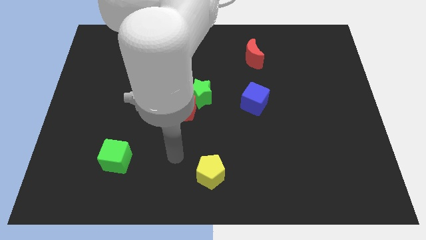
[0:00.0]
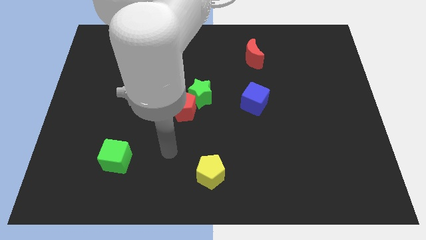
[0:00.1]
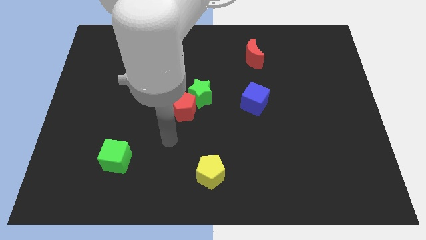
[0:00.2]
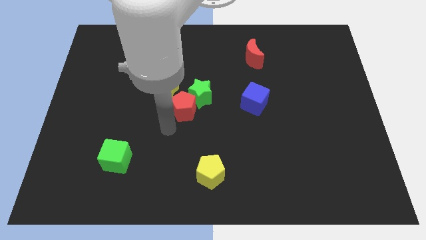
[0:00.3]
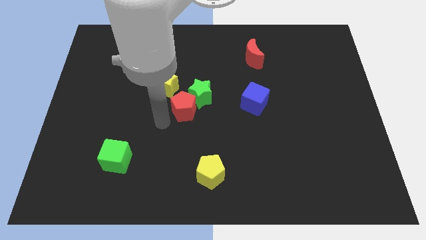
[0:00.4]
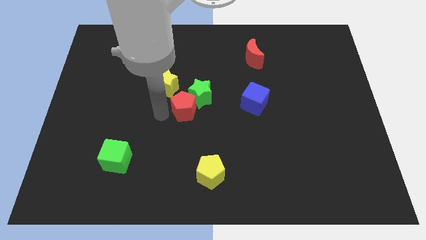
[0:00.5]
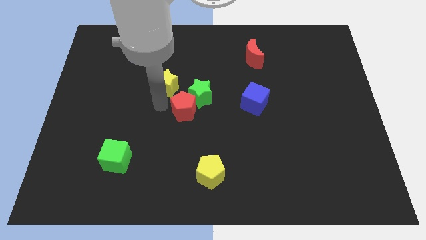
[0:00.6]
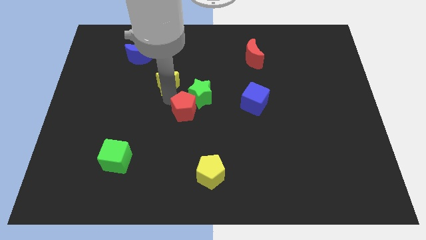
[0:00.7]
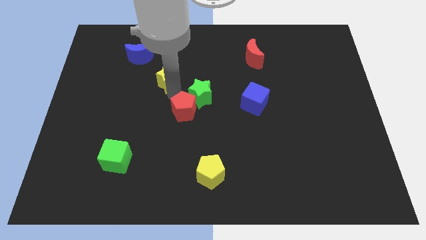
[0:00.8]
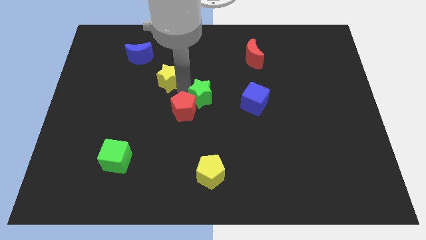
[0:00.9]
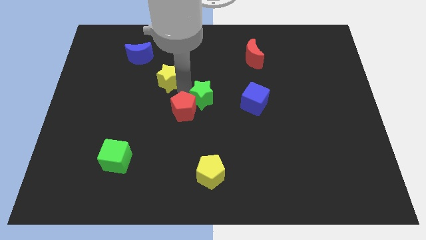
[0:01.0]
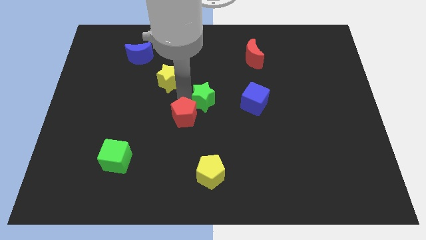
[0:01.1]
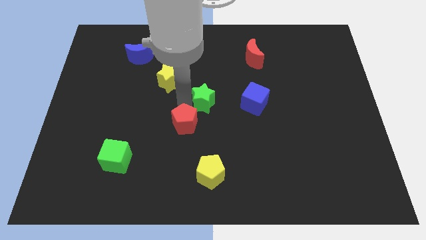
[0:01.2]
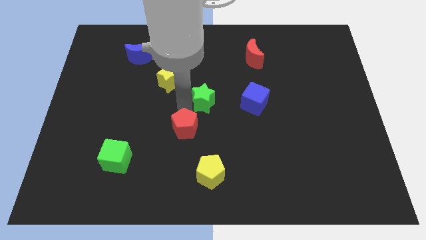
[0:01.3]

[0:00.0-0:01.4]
pull the red pentagon apart from the green star and yellow star

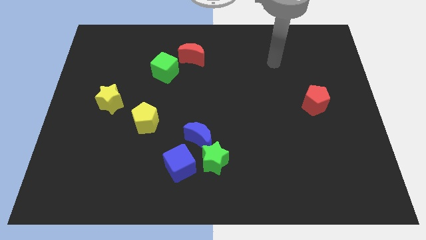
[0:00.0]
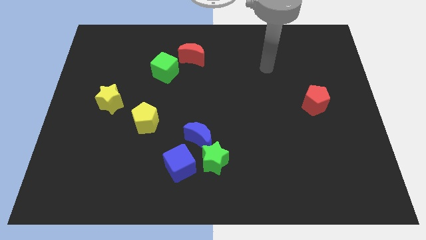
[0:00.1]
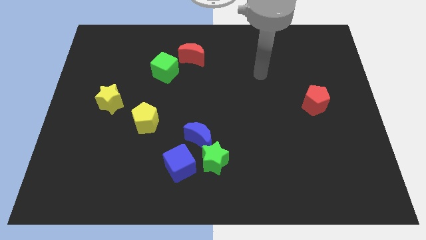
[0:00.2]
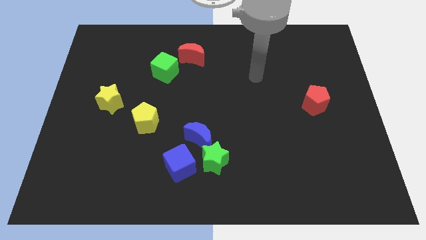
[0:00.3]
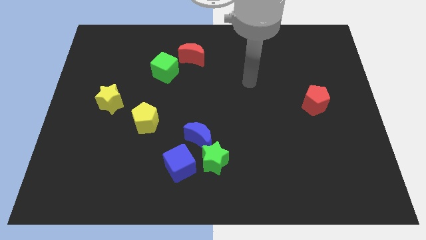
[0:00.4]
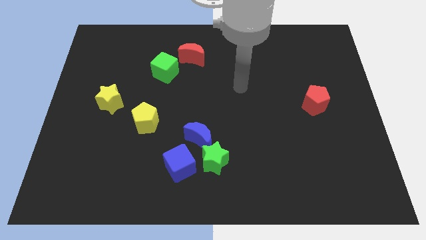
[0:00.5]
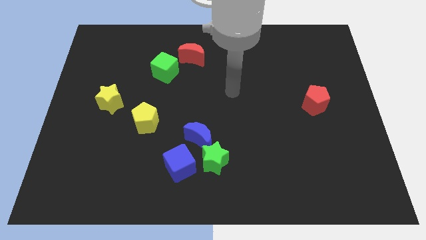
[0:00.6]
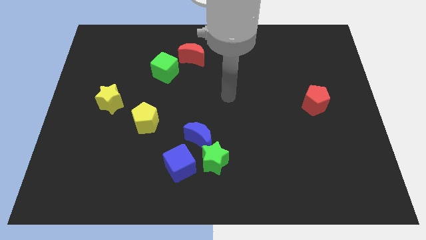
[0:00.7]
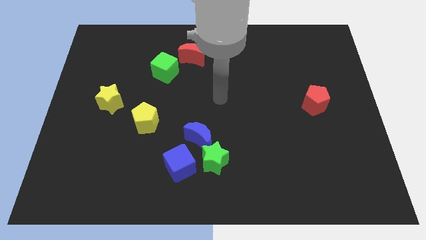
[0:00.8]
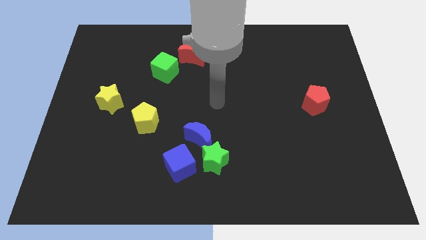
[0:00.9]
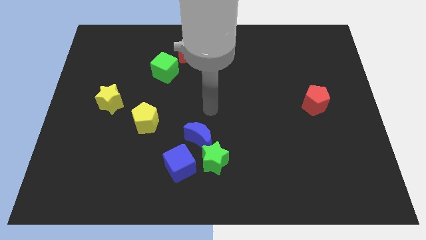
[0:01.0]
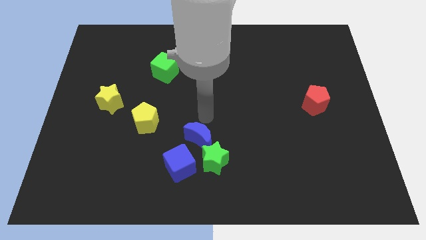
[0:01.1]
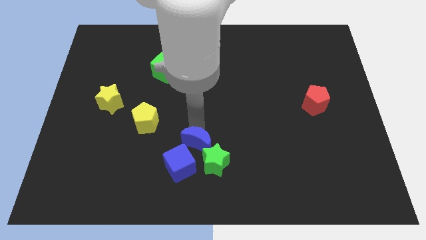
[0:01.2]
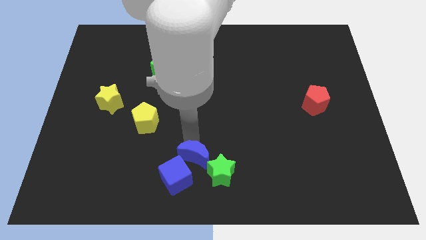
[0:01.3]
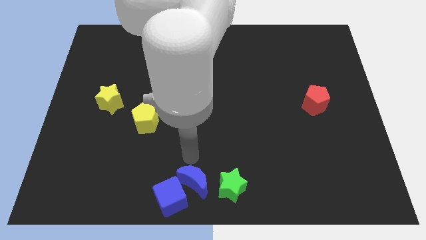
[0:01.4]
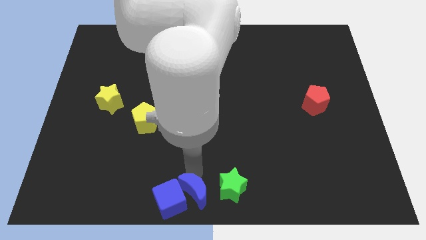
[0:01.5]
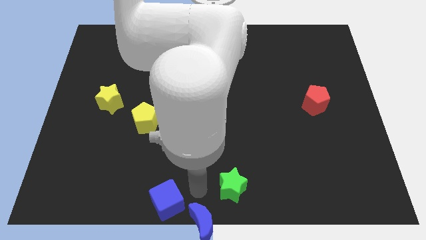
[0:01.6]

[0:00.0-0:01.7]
move the green star away from the blue moon and blue cube

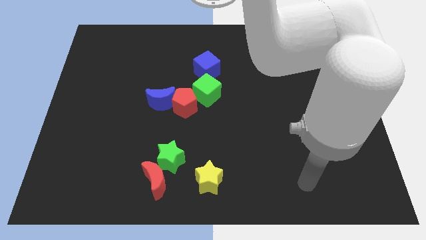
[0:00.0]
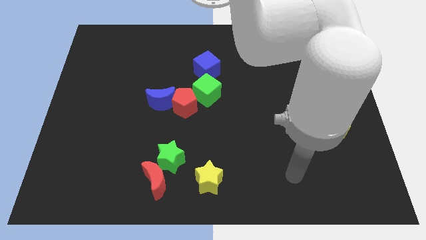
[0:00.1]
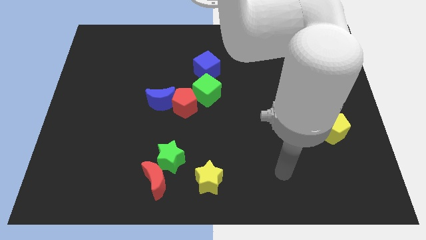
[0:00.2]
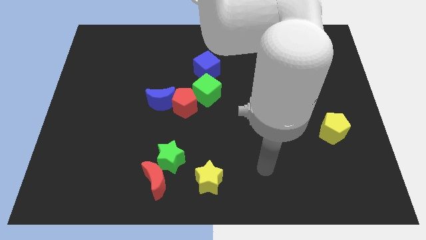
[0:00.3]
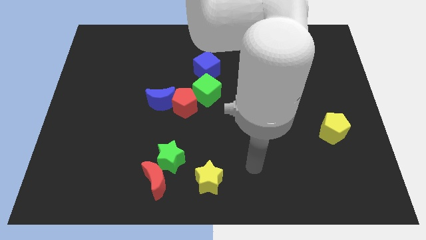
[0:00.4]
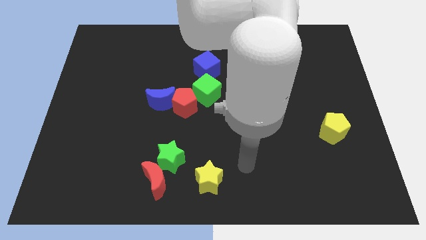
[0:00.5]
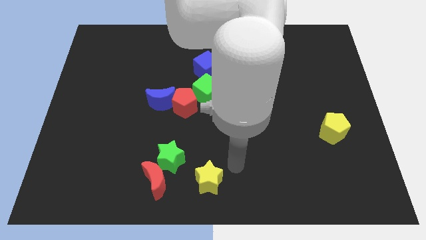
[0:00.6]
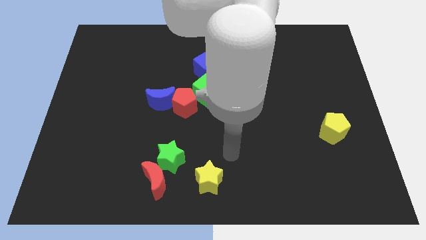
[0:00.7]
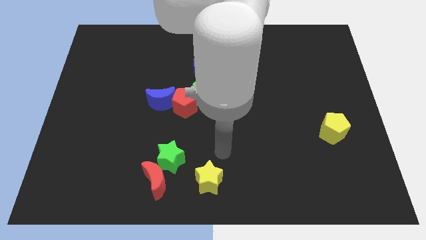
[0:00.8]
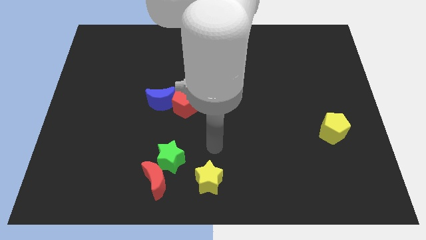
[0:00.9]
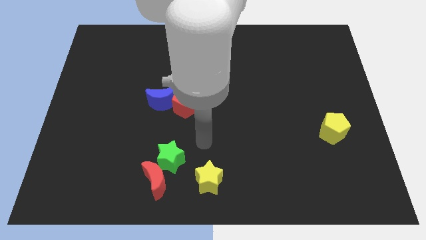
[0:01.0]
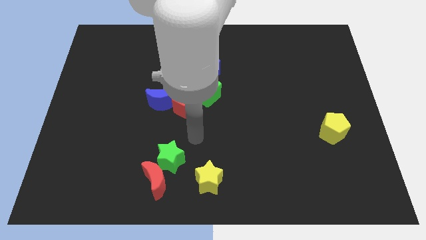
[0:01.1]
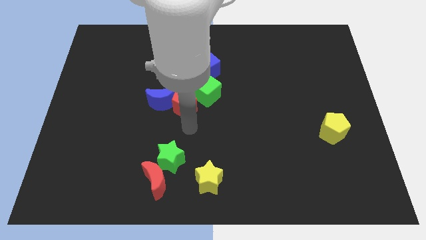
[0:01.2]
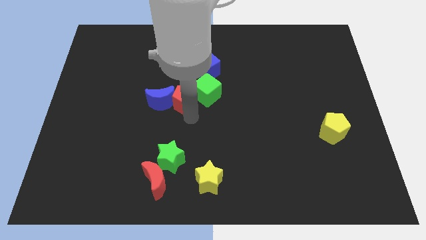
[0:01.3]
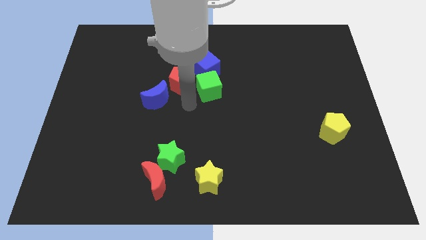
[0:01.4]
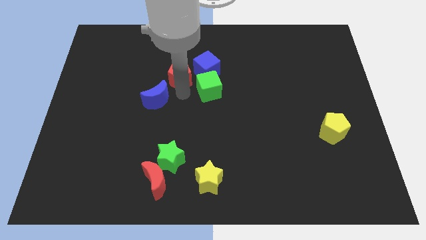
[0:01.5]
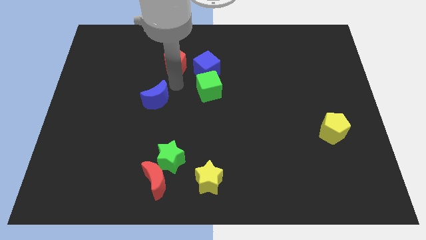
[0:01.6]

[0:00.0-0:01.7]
move the blue moon away from the red pentagon

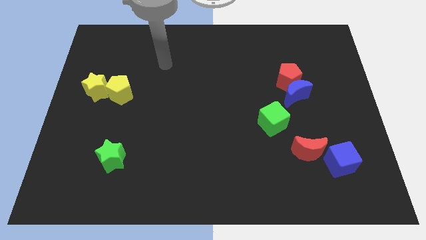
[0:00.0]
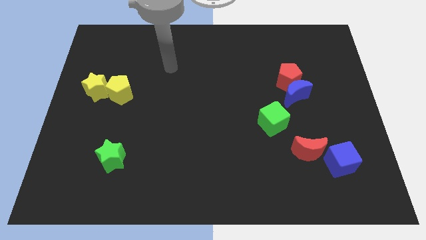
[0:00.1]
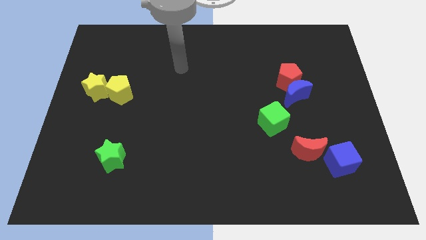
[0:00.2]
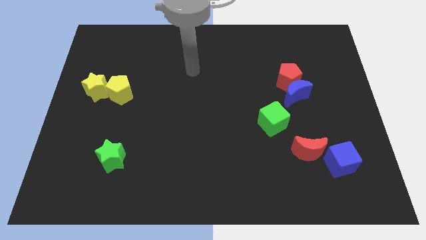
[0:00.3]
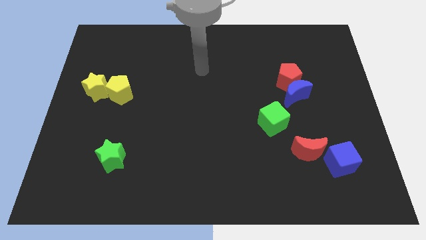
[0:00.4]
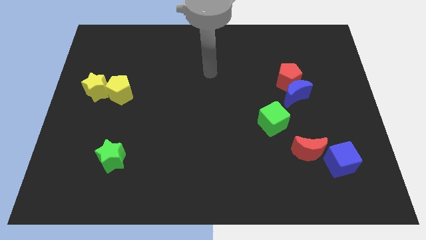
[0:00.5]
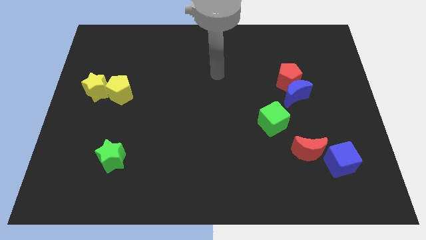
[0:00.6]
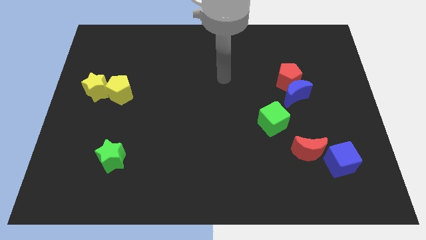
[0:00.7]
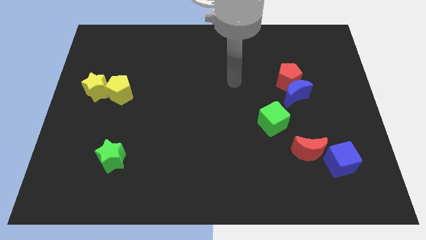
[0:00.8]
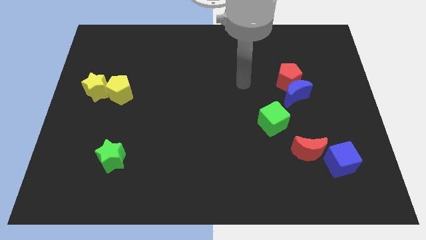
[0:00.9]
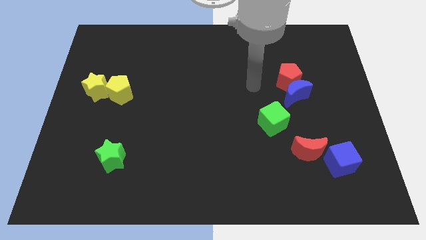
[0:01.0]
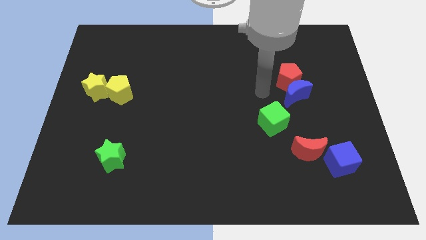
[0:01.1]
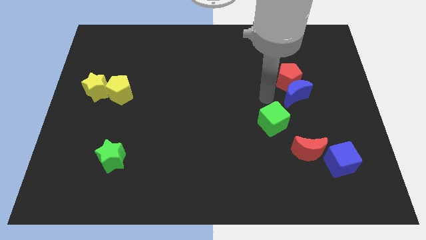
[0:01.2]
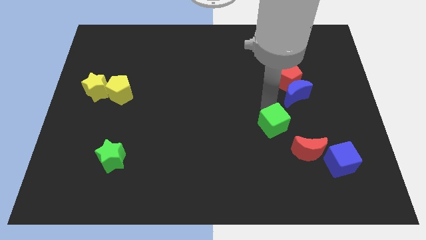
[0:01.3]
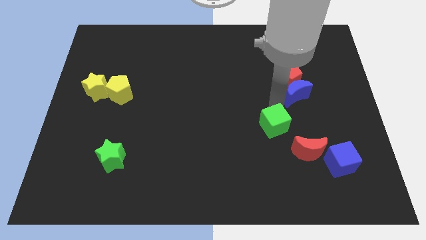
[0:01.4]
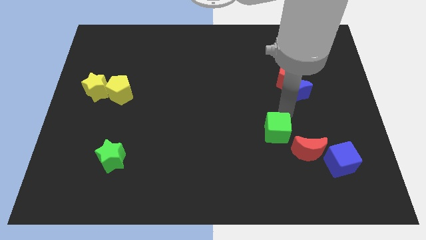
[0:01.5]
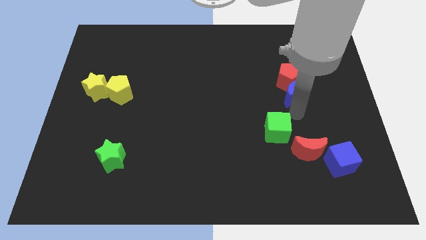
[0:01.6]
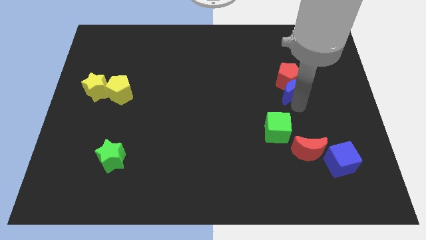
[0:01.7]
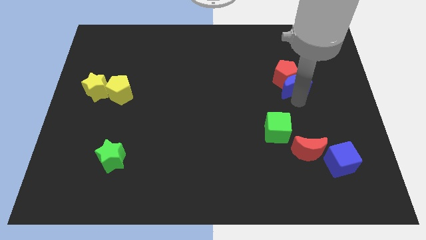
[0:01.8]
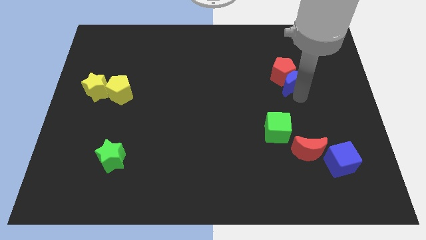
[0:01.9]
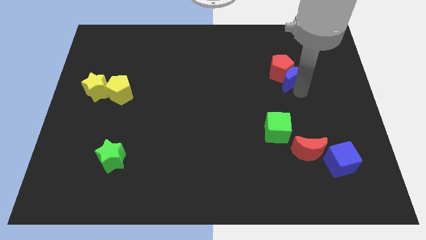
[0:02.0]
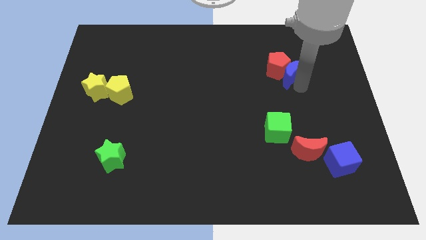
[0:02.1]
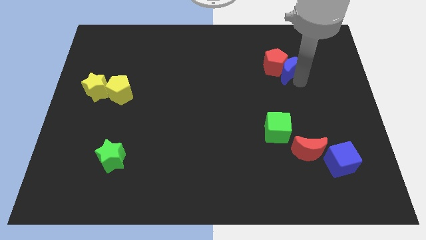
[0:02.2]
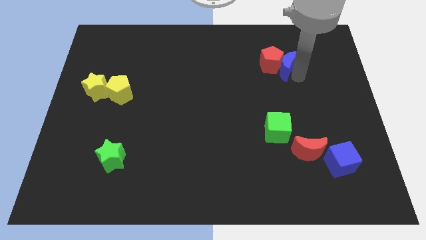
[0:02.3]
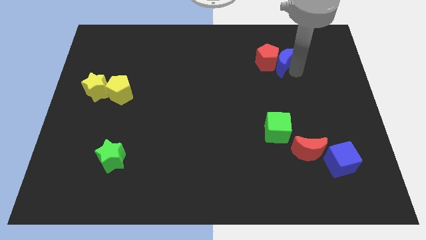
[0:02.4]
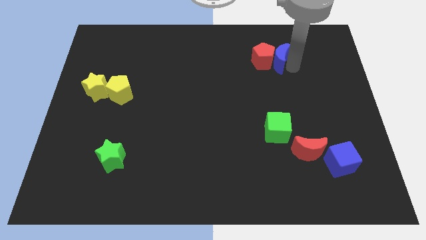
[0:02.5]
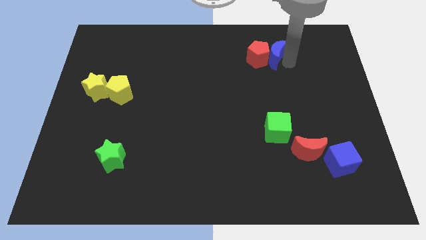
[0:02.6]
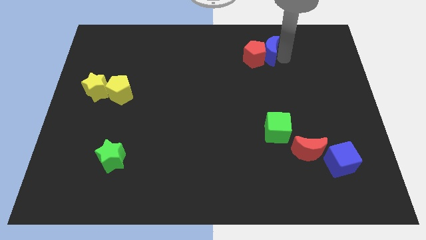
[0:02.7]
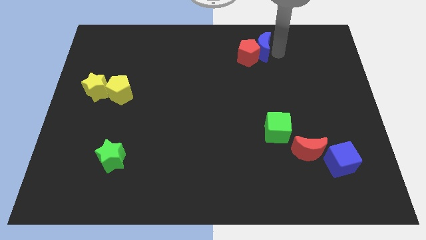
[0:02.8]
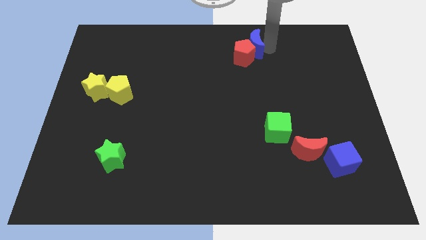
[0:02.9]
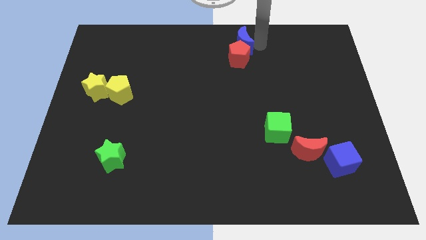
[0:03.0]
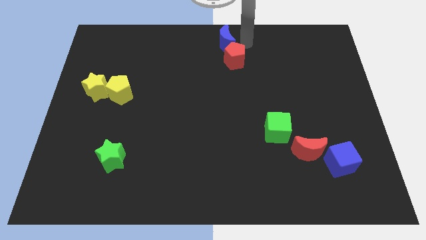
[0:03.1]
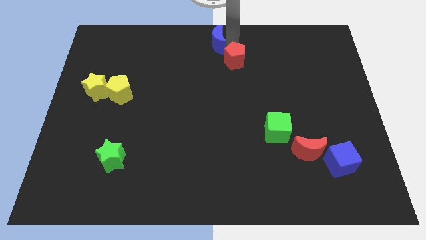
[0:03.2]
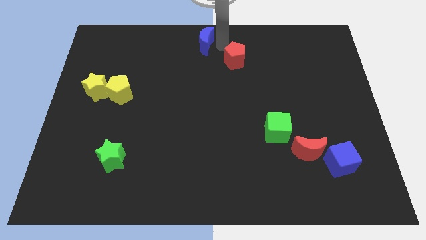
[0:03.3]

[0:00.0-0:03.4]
move the red pentagon away from the blue moon

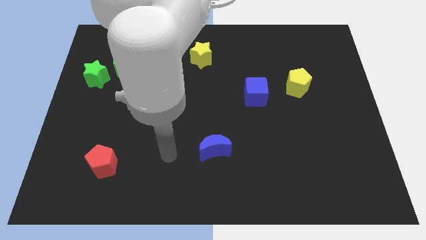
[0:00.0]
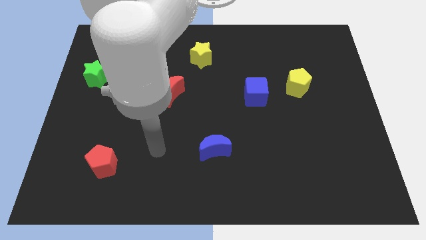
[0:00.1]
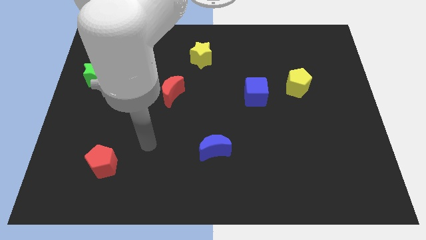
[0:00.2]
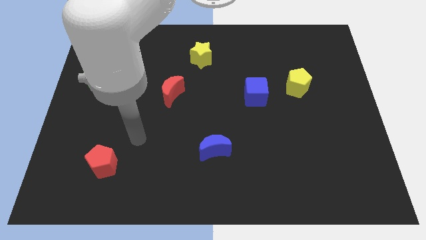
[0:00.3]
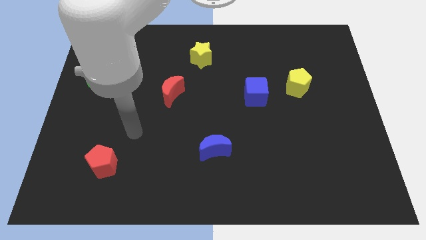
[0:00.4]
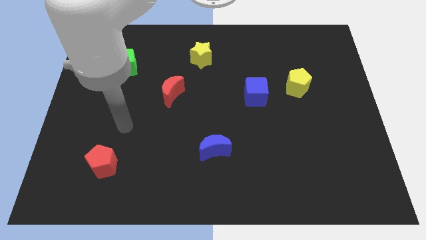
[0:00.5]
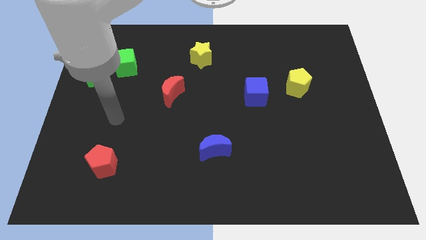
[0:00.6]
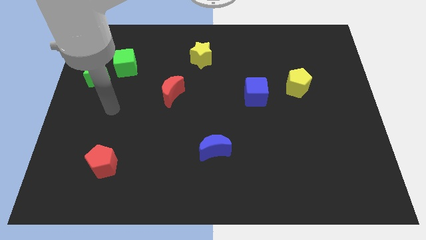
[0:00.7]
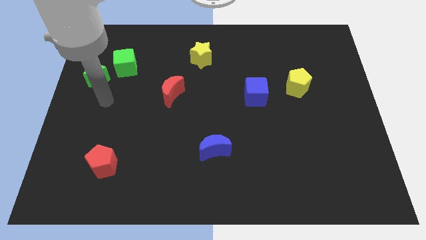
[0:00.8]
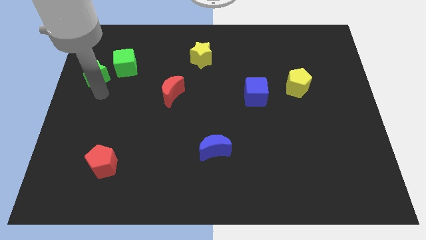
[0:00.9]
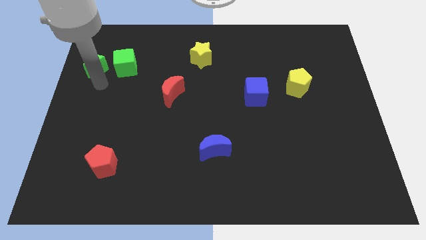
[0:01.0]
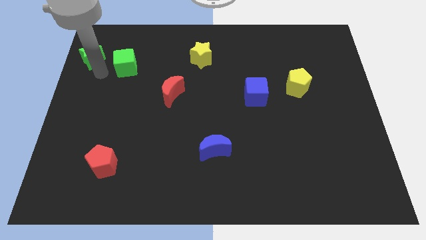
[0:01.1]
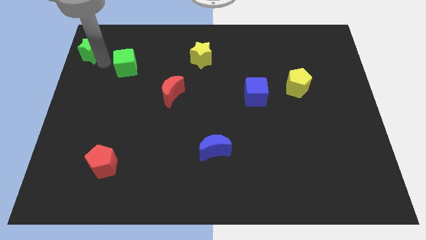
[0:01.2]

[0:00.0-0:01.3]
separate the green cube from the green star
